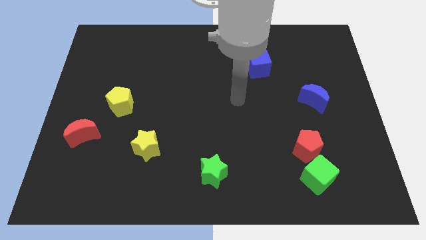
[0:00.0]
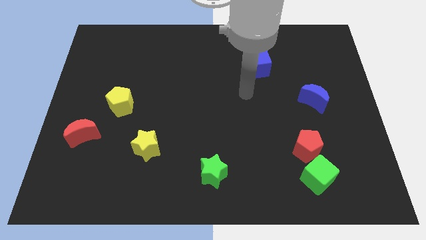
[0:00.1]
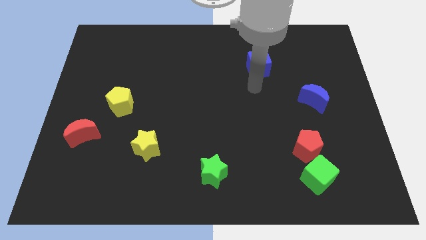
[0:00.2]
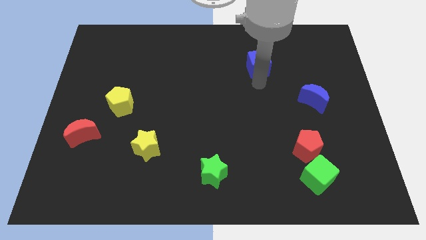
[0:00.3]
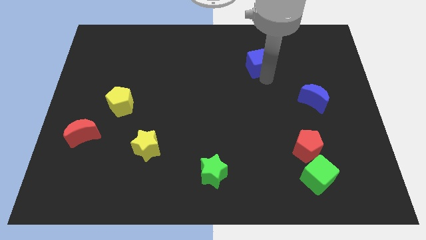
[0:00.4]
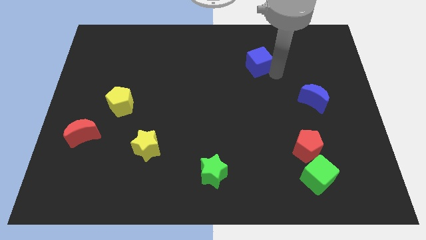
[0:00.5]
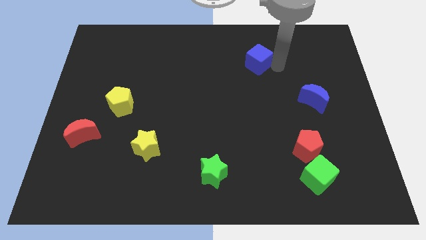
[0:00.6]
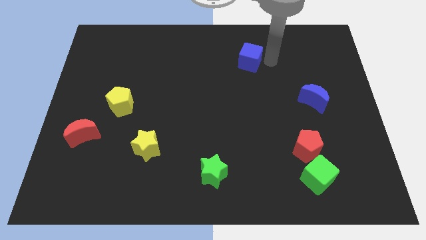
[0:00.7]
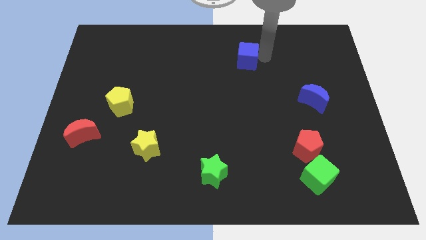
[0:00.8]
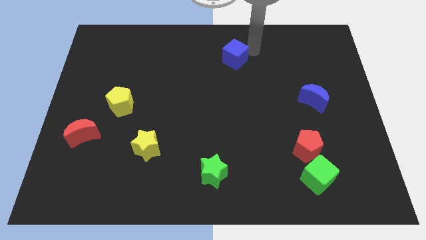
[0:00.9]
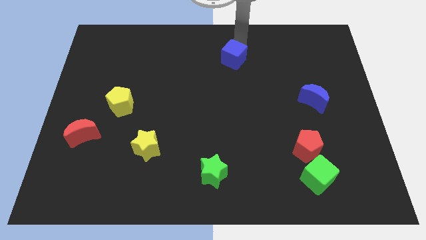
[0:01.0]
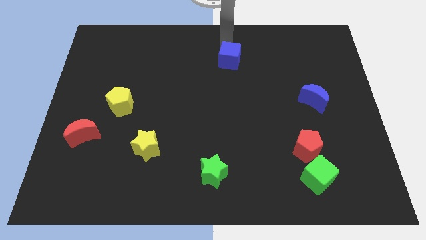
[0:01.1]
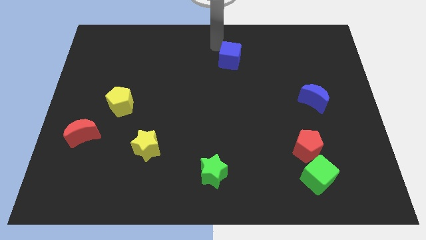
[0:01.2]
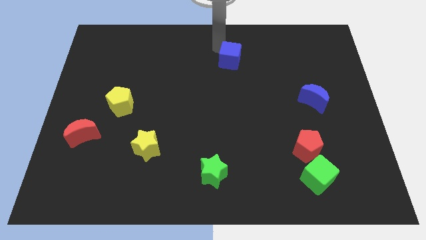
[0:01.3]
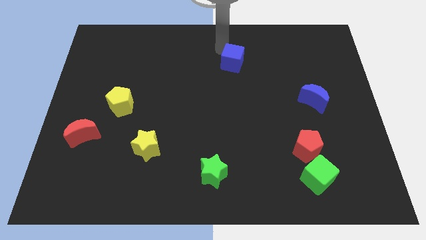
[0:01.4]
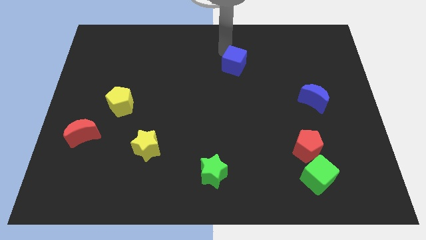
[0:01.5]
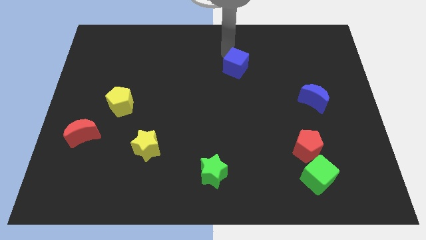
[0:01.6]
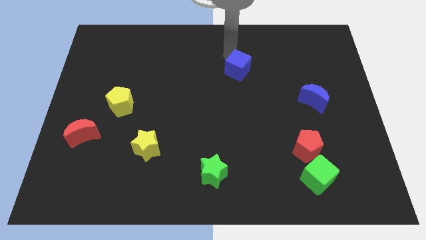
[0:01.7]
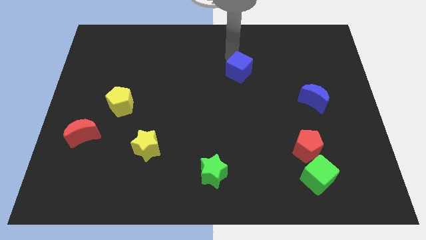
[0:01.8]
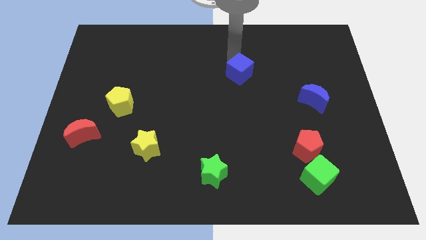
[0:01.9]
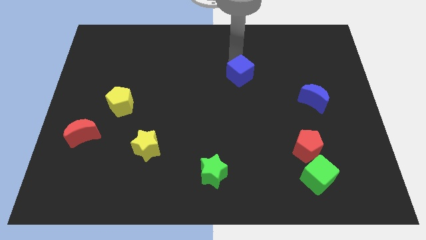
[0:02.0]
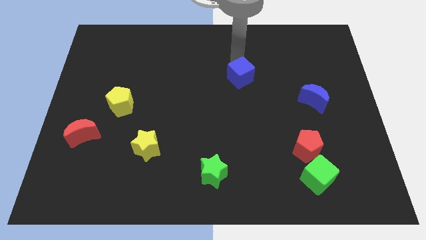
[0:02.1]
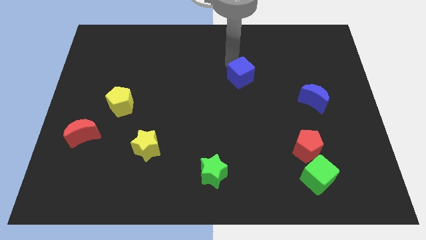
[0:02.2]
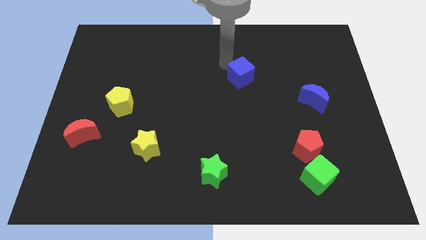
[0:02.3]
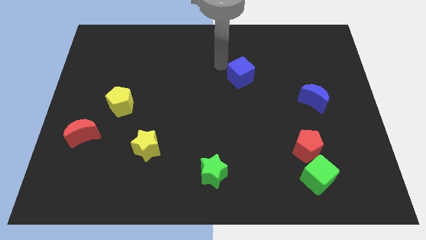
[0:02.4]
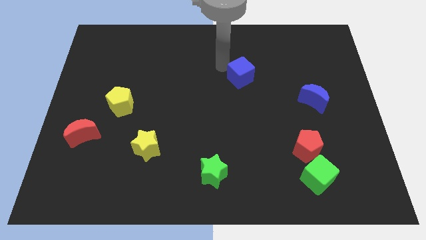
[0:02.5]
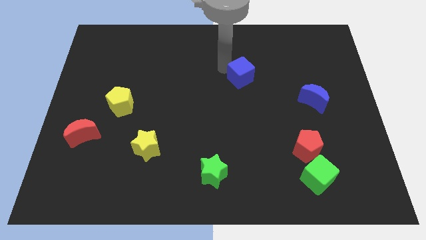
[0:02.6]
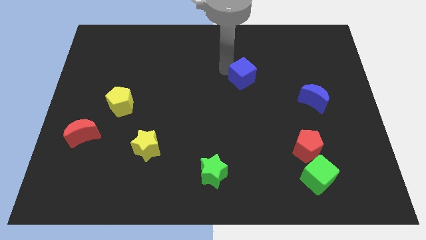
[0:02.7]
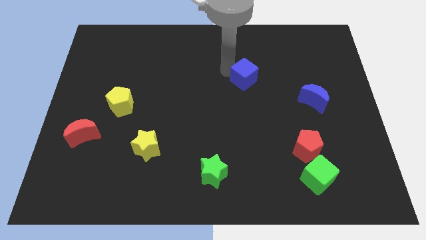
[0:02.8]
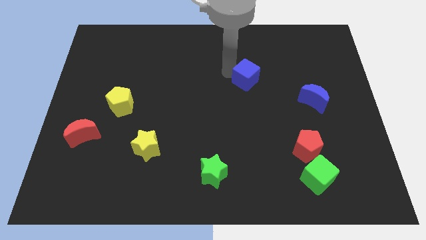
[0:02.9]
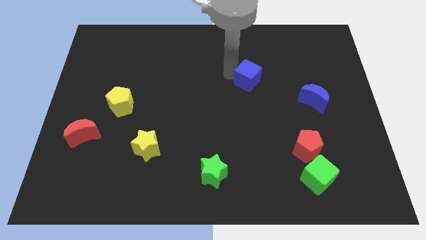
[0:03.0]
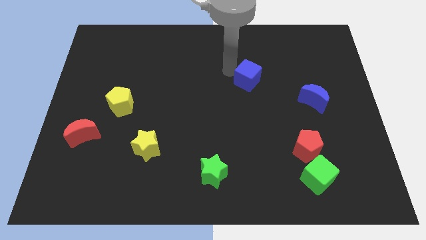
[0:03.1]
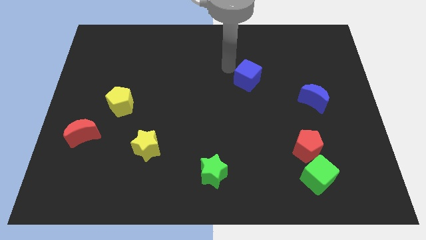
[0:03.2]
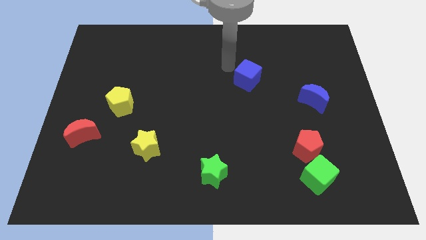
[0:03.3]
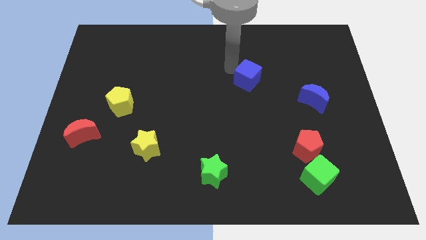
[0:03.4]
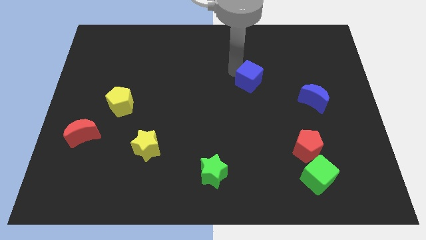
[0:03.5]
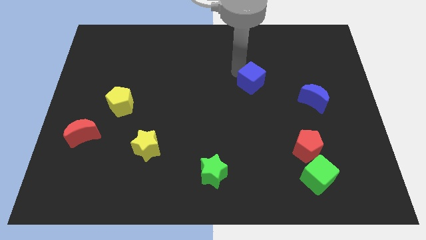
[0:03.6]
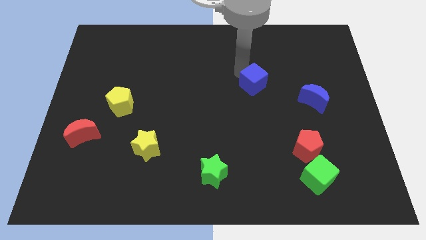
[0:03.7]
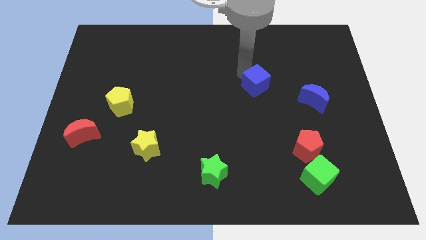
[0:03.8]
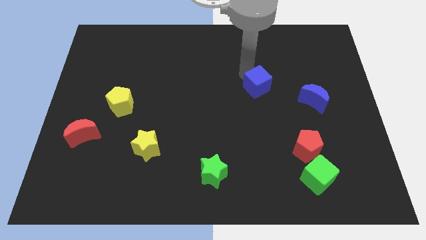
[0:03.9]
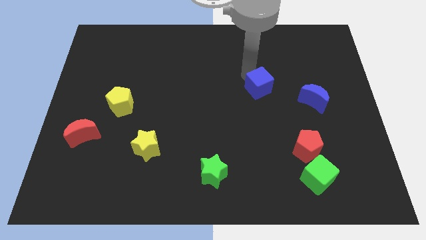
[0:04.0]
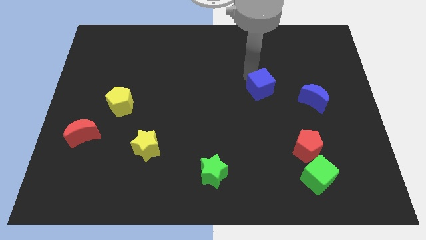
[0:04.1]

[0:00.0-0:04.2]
slide the blue cube a little bit down

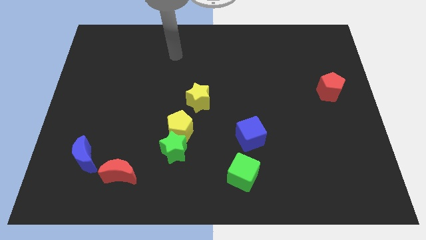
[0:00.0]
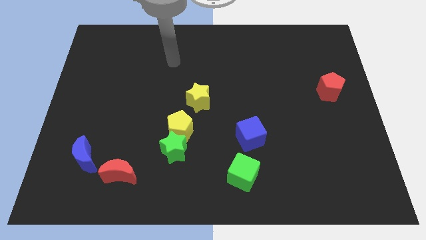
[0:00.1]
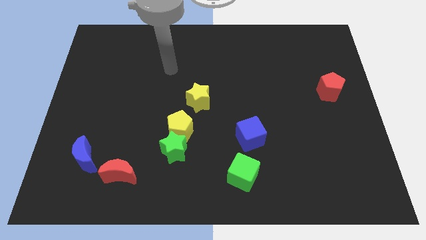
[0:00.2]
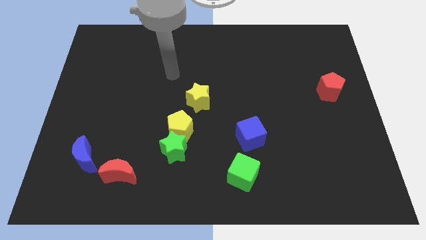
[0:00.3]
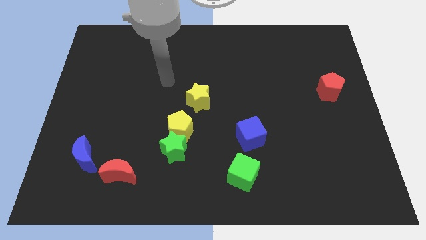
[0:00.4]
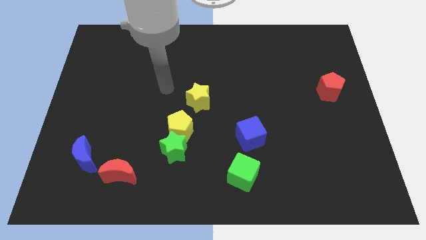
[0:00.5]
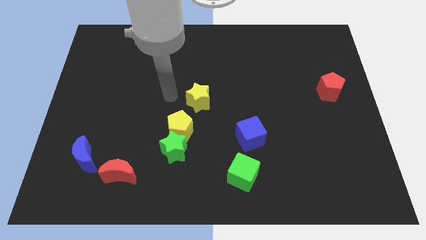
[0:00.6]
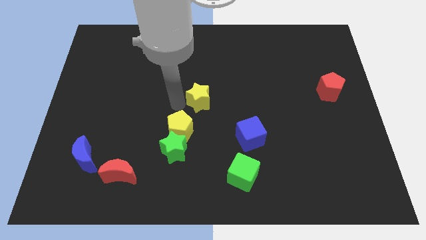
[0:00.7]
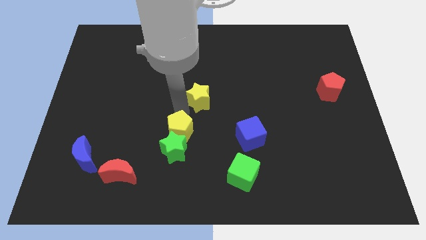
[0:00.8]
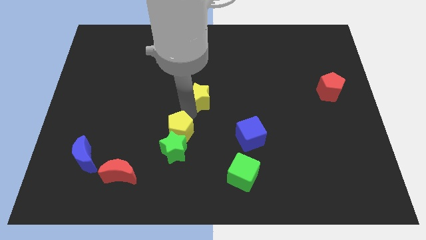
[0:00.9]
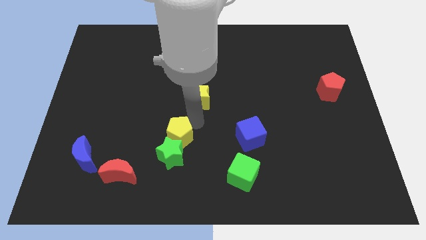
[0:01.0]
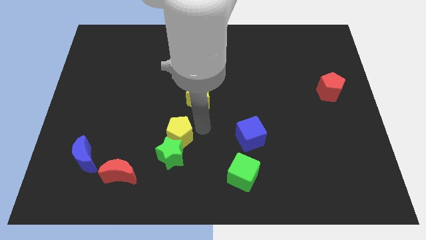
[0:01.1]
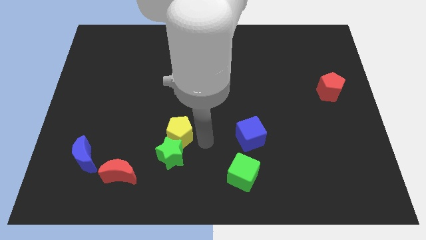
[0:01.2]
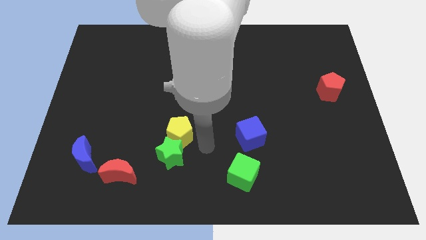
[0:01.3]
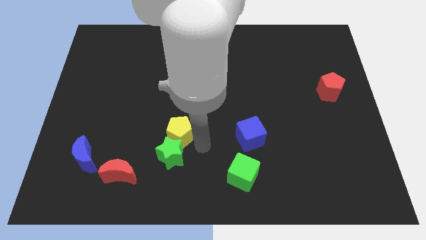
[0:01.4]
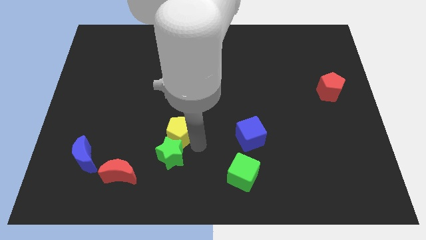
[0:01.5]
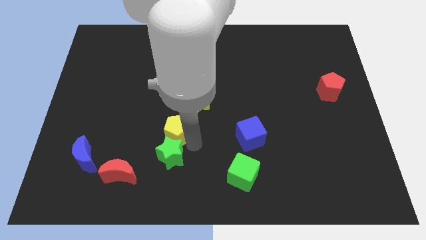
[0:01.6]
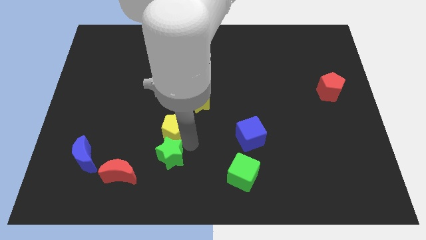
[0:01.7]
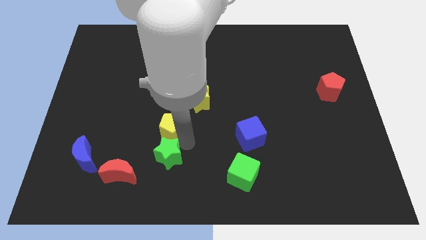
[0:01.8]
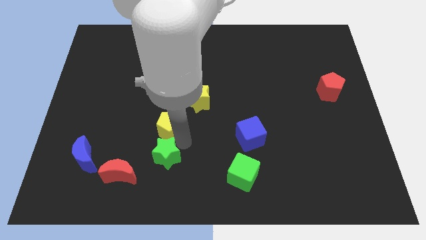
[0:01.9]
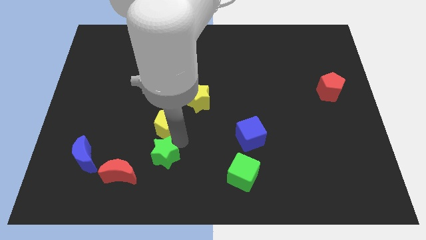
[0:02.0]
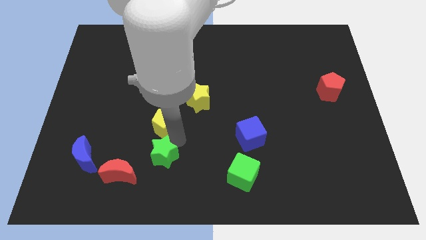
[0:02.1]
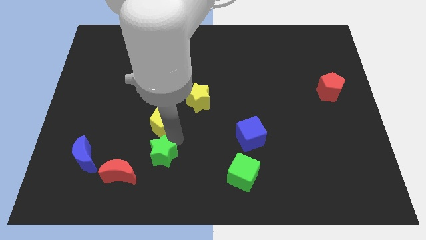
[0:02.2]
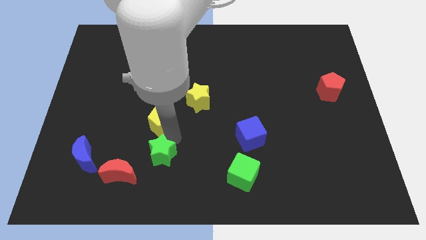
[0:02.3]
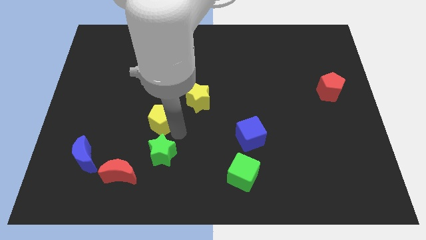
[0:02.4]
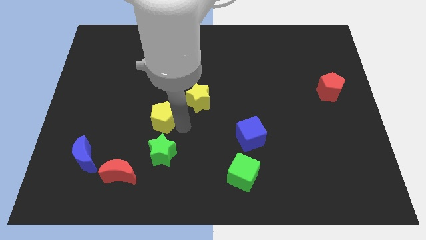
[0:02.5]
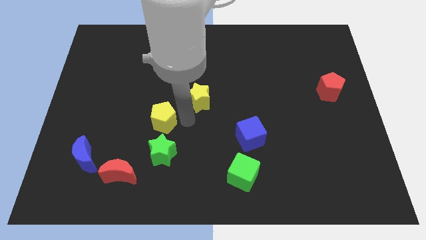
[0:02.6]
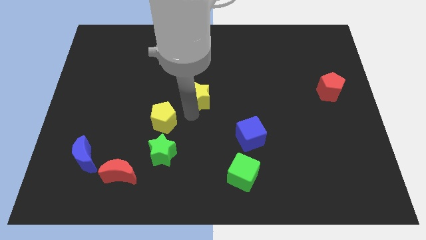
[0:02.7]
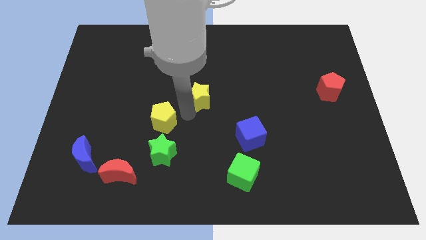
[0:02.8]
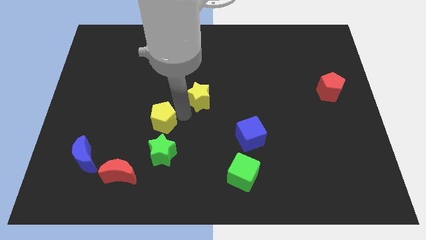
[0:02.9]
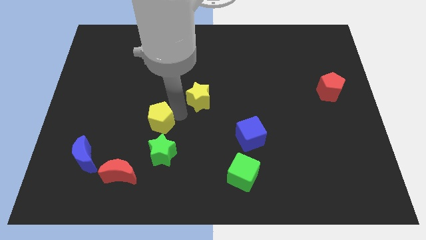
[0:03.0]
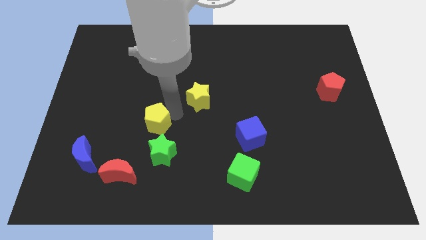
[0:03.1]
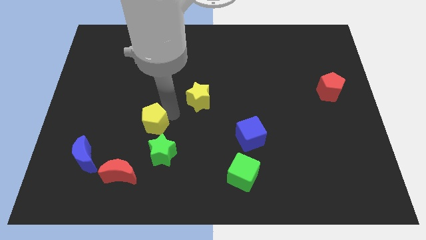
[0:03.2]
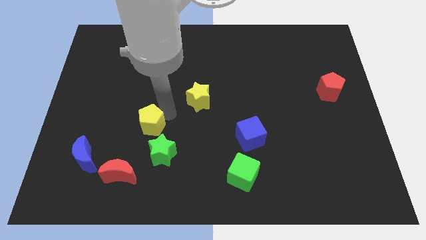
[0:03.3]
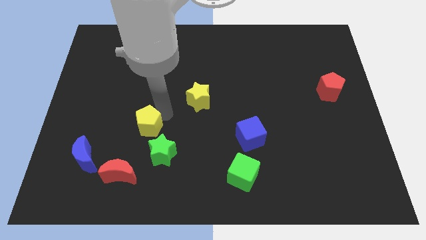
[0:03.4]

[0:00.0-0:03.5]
slightly slide the yellow pentagon to the left

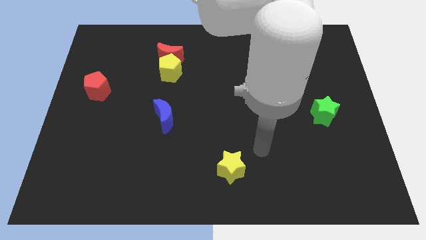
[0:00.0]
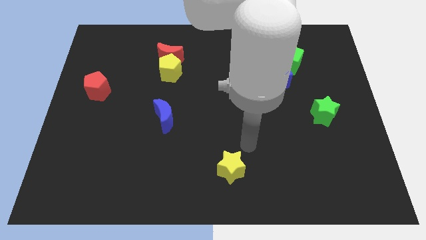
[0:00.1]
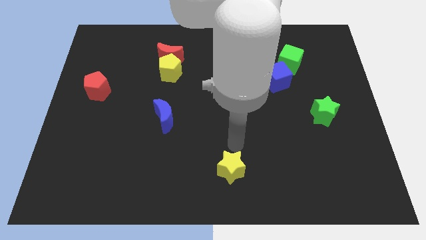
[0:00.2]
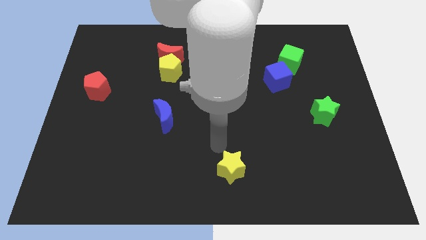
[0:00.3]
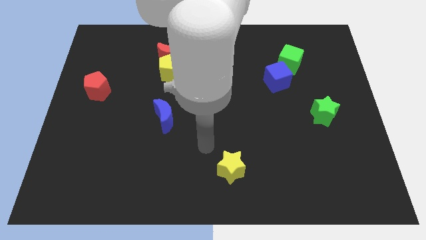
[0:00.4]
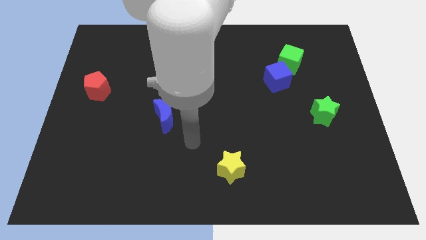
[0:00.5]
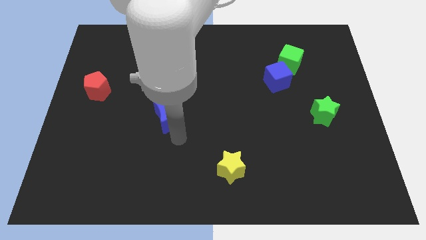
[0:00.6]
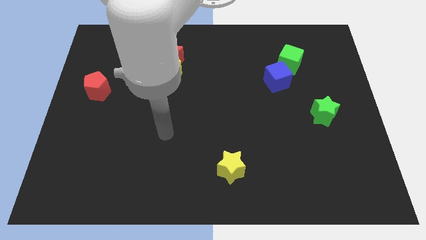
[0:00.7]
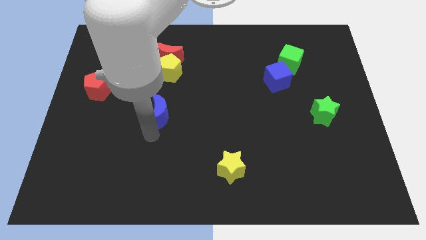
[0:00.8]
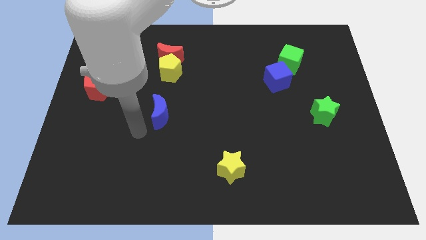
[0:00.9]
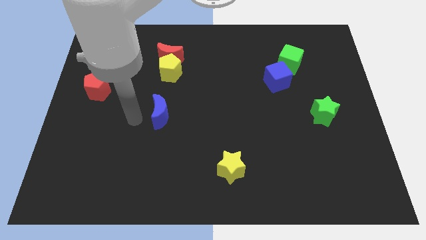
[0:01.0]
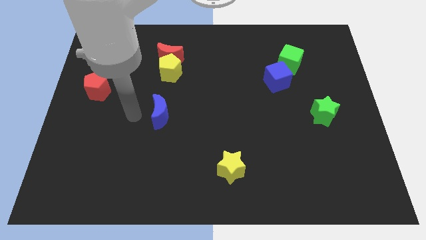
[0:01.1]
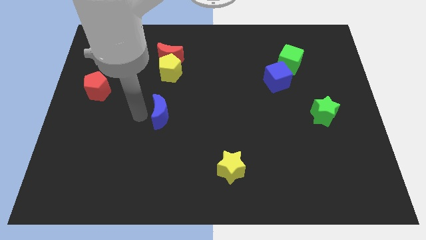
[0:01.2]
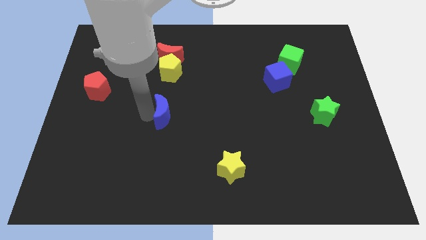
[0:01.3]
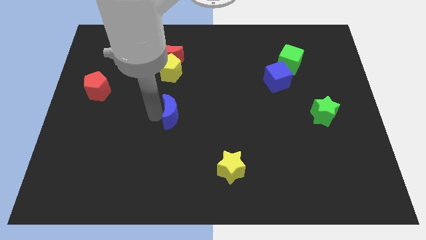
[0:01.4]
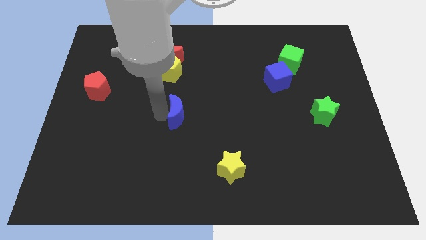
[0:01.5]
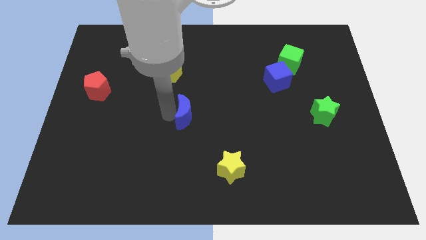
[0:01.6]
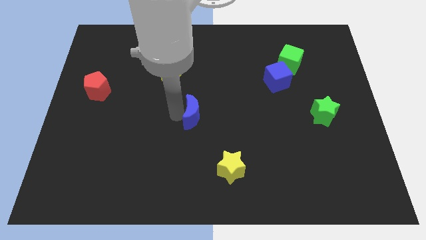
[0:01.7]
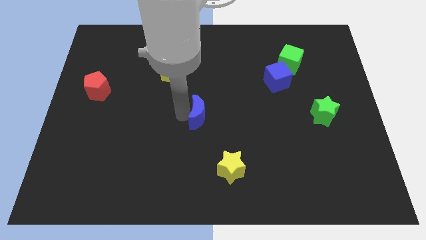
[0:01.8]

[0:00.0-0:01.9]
slide the blue moon somewhat right
